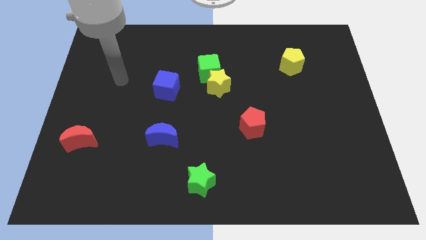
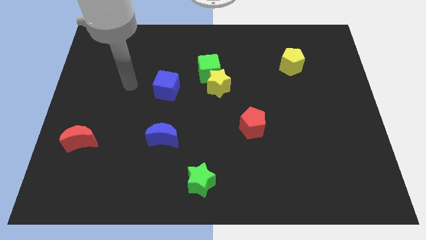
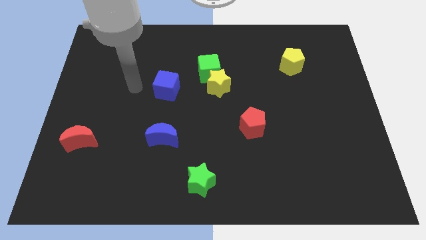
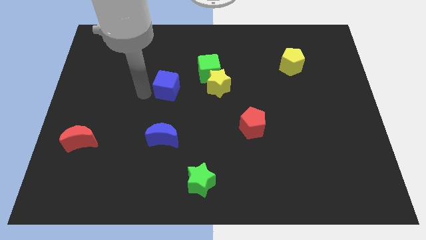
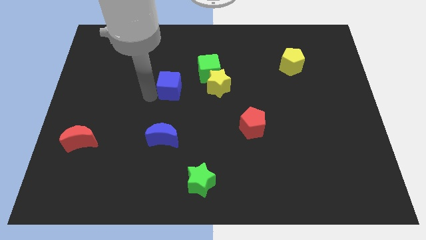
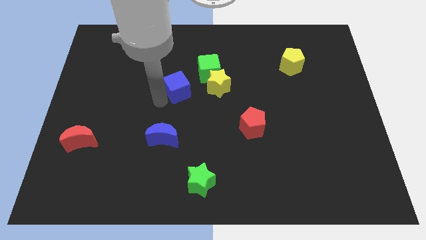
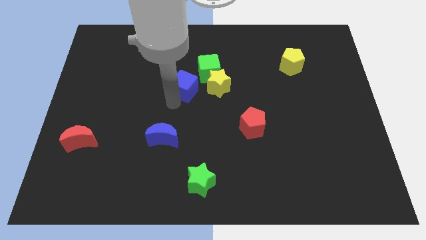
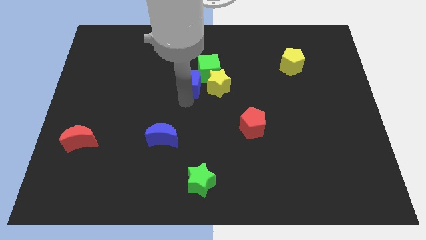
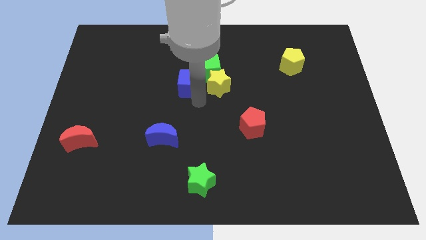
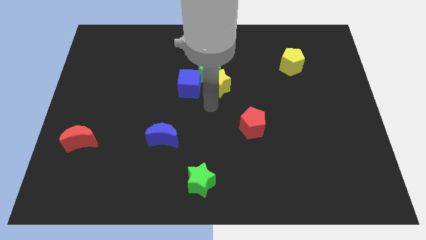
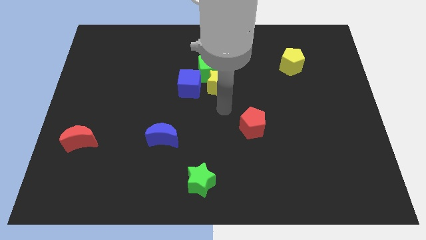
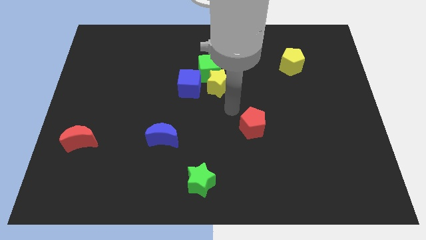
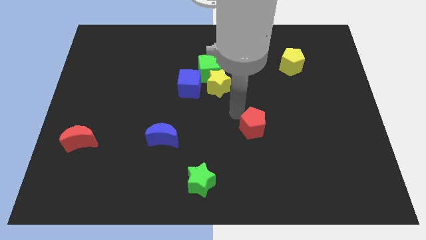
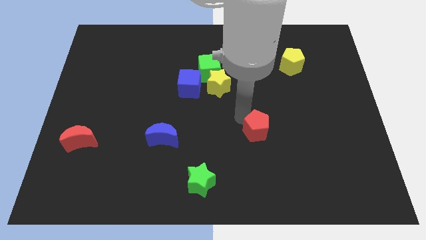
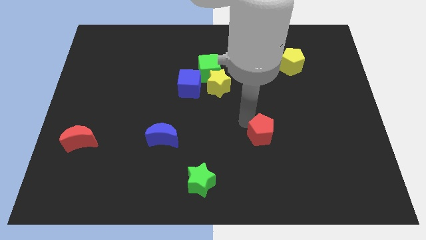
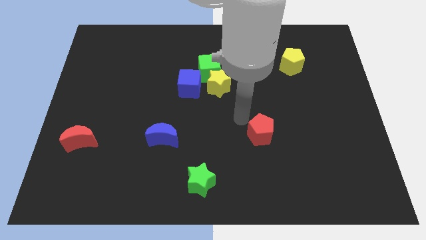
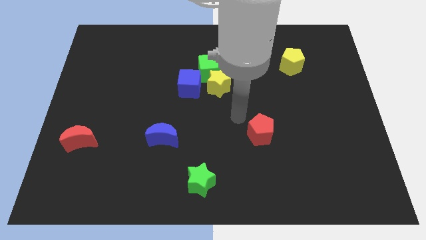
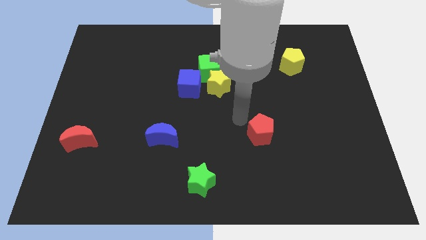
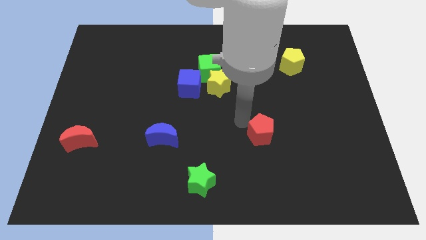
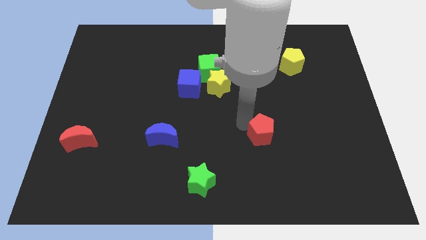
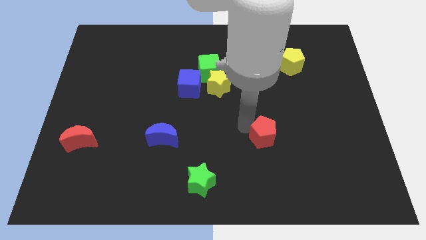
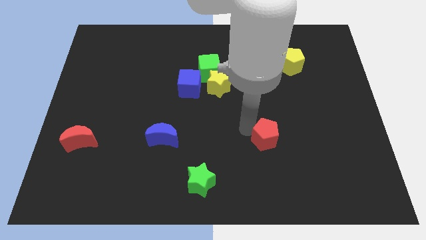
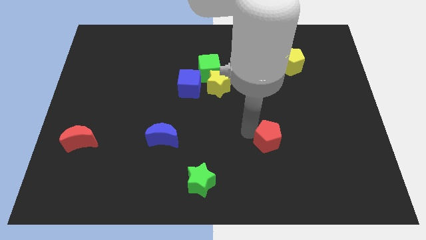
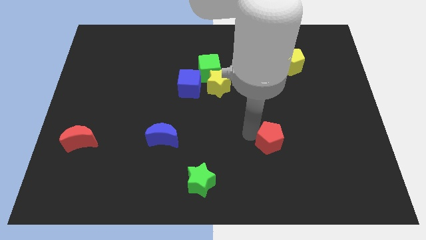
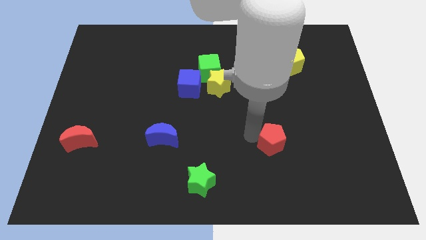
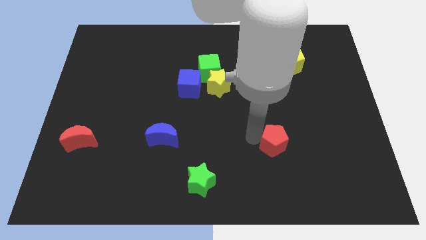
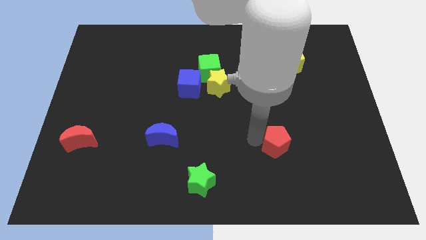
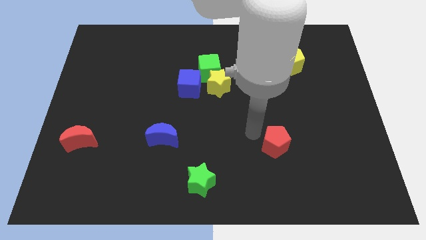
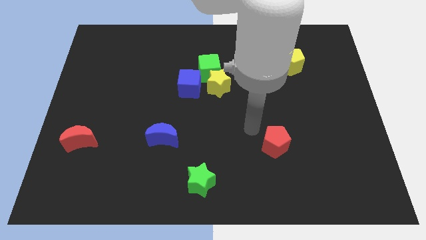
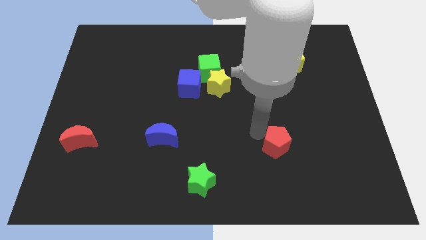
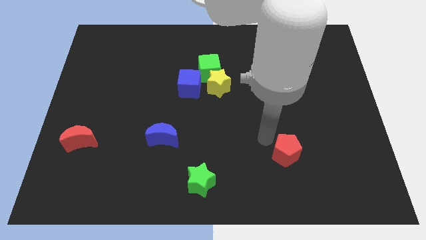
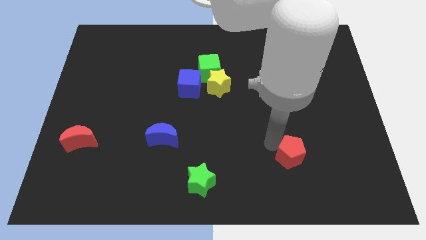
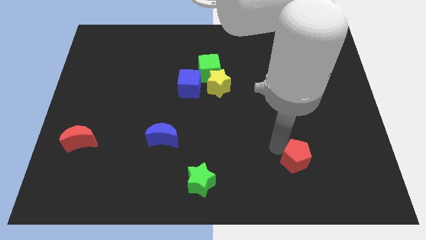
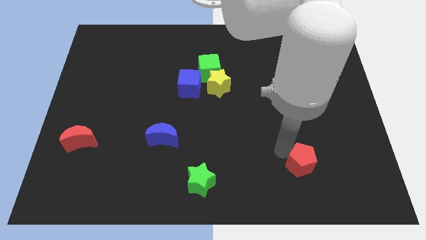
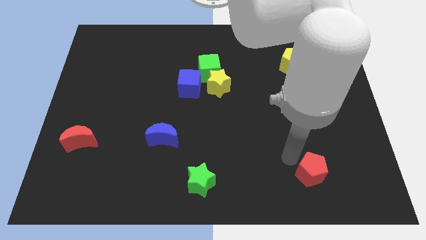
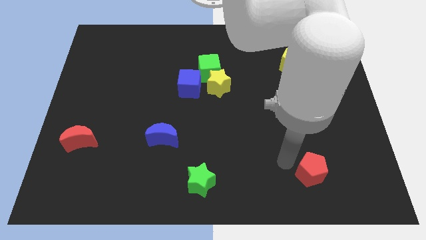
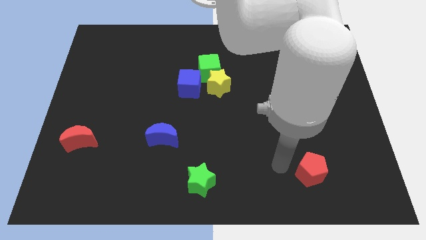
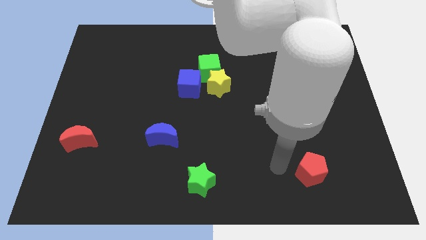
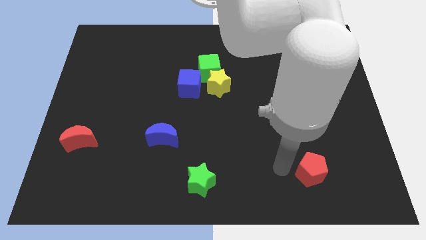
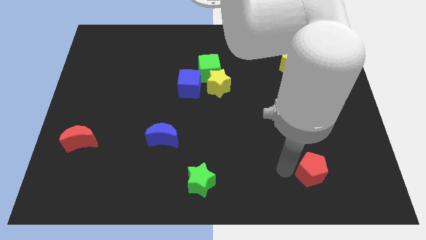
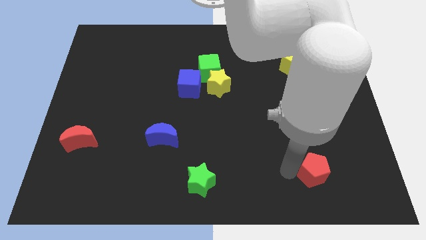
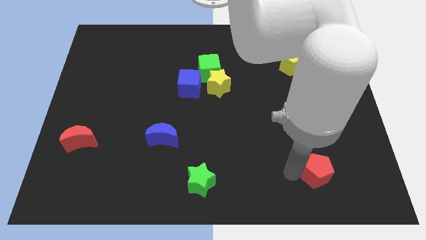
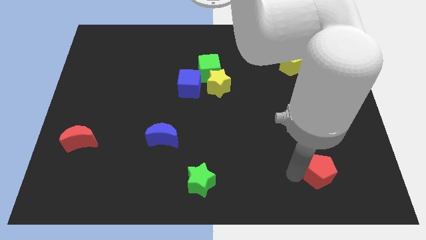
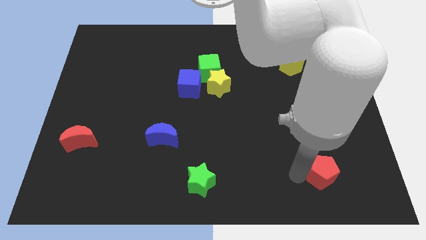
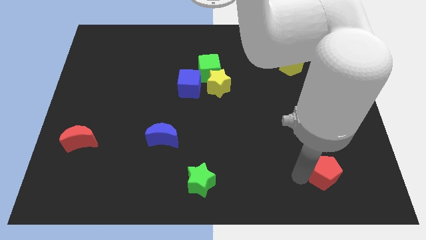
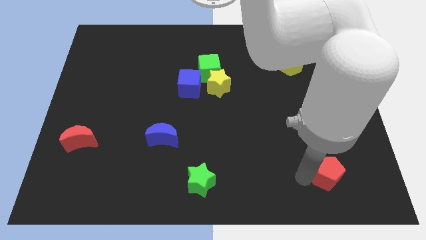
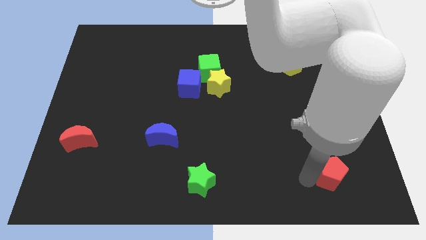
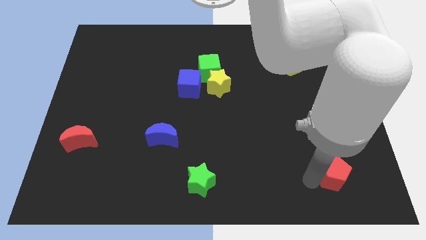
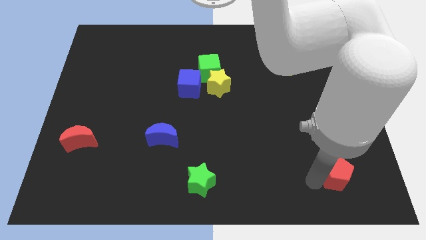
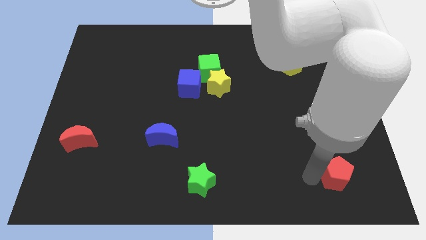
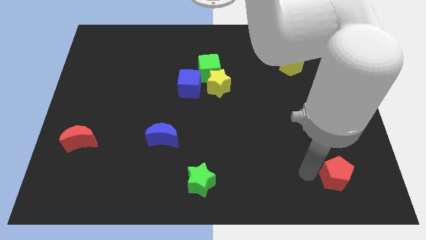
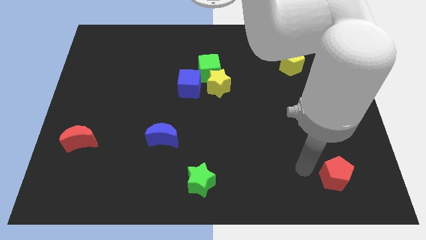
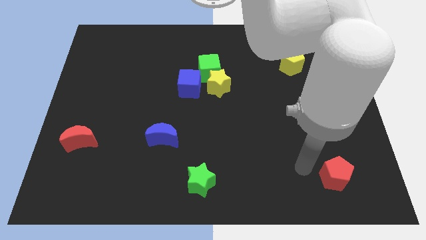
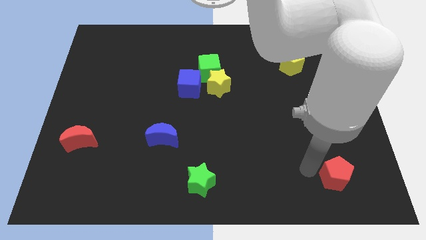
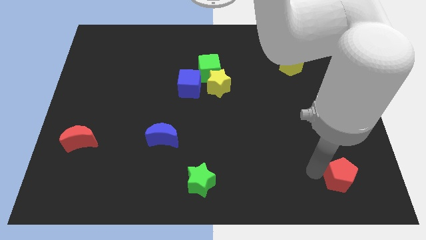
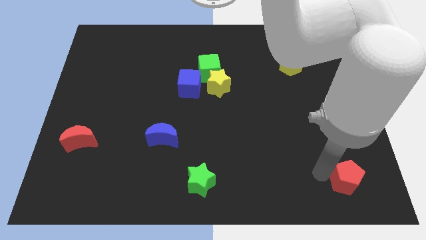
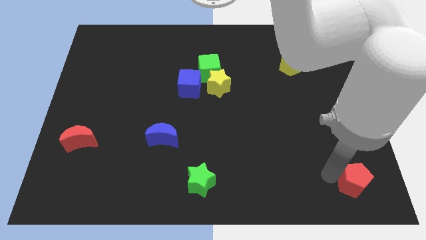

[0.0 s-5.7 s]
move the red pentagon to the bottom right of the board

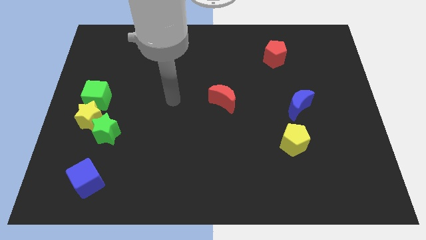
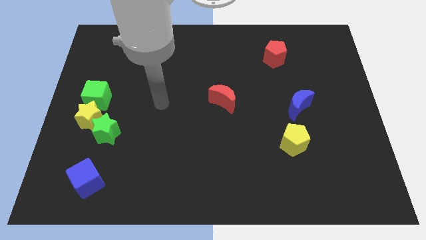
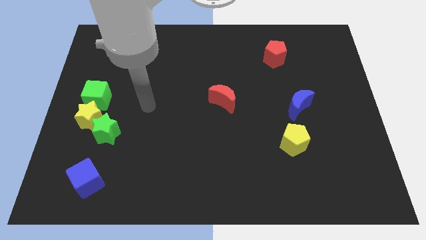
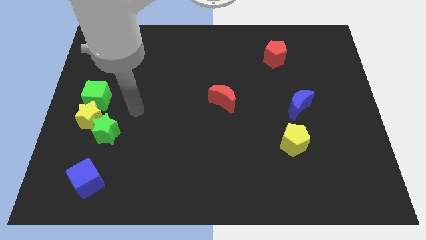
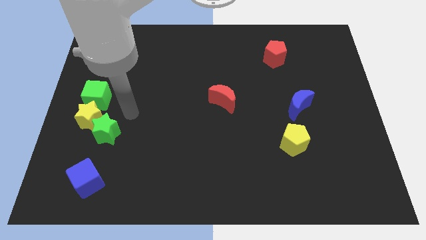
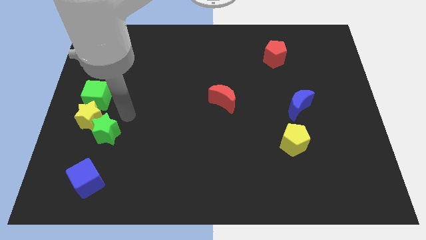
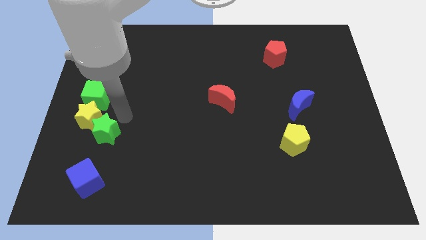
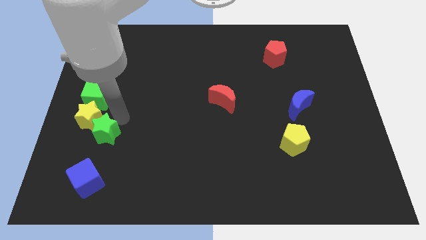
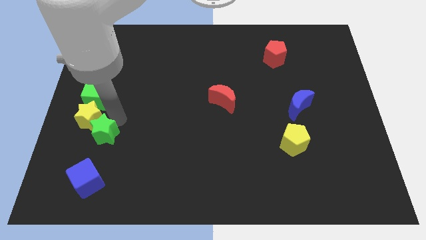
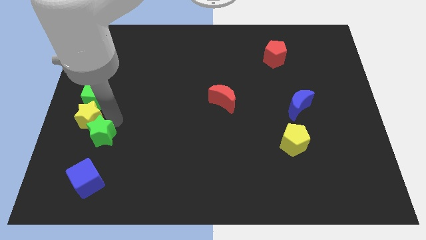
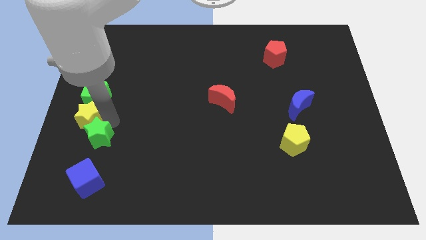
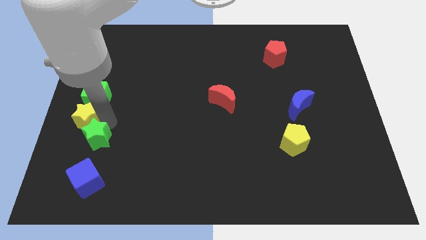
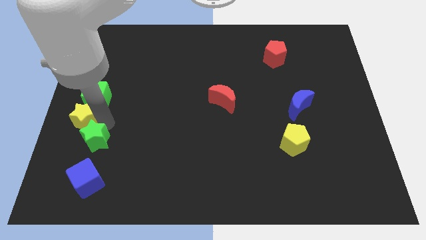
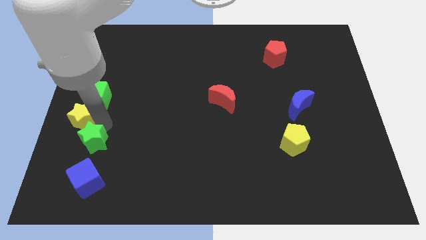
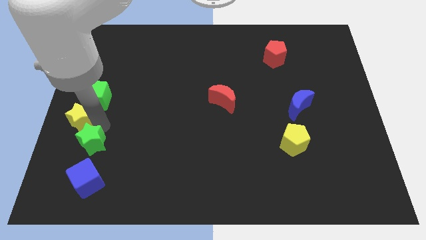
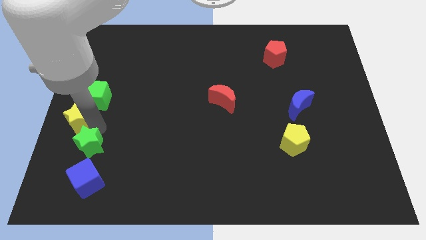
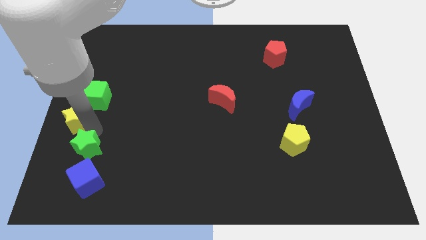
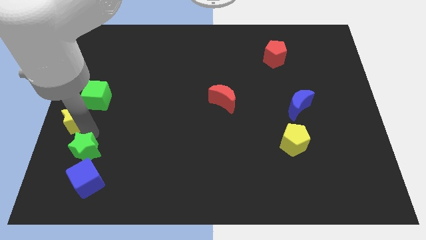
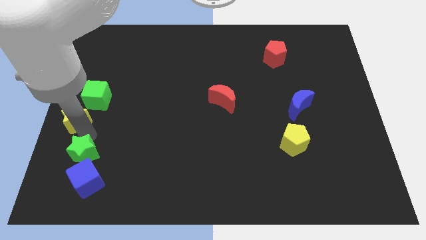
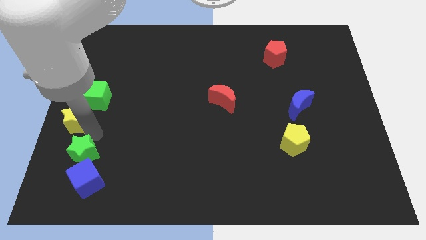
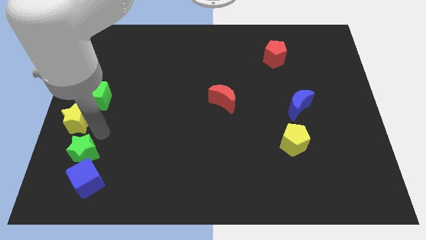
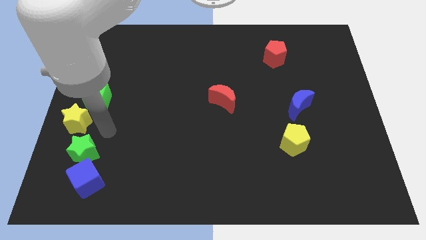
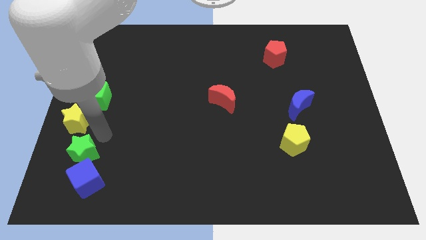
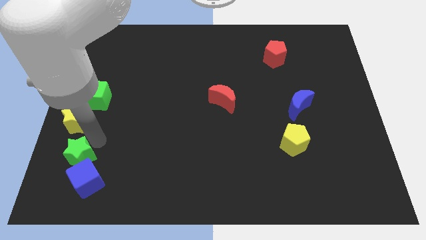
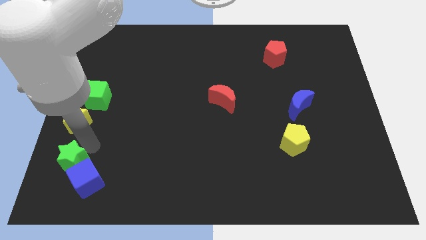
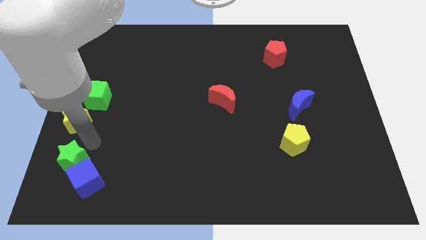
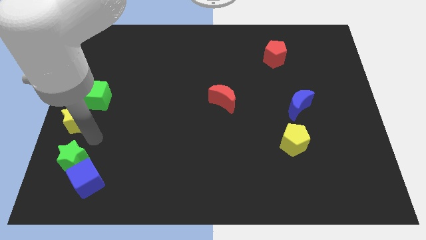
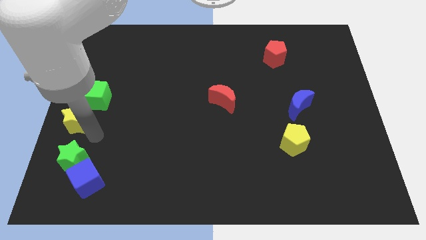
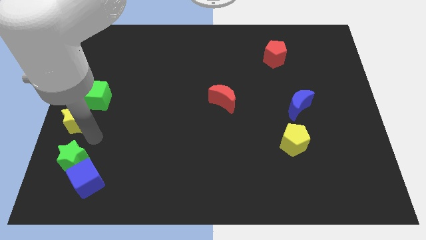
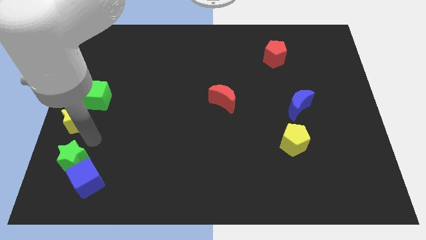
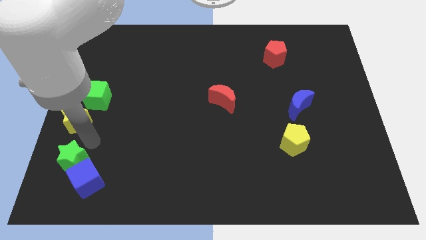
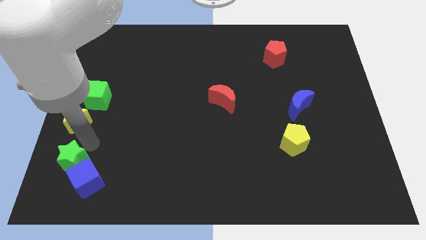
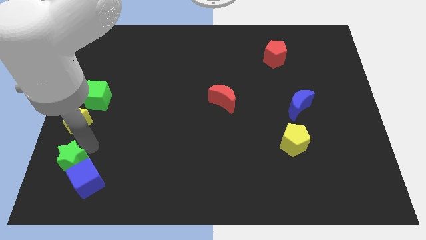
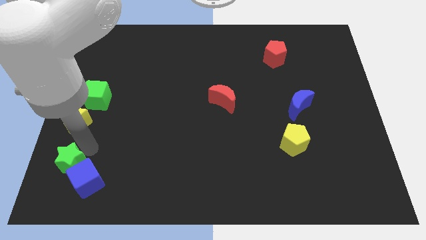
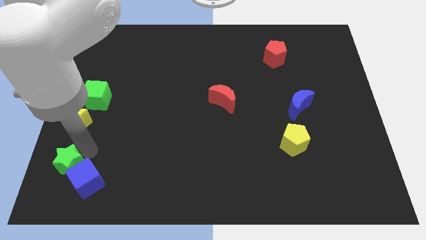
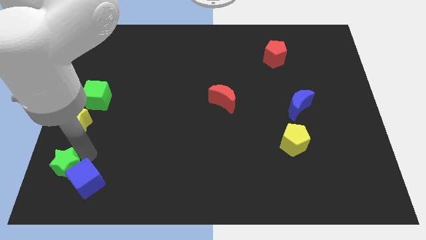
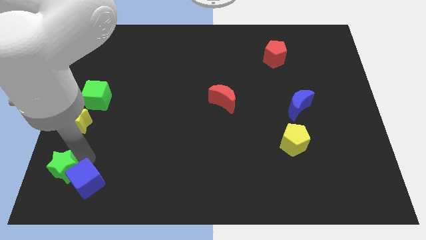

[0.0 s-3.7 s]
push the green star to the lower left corner
